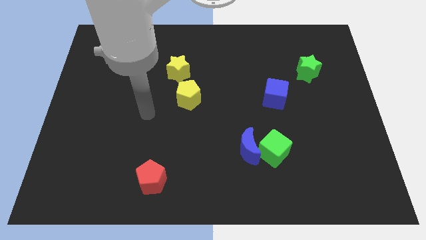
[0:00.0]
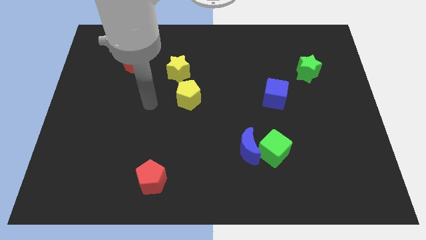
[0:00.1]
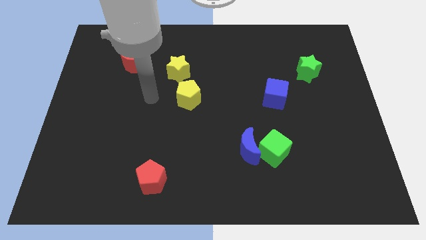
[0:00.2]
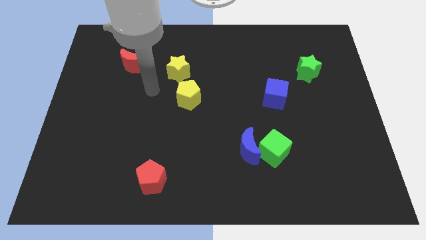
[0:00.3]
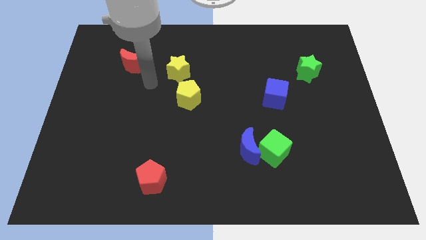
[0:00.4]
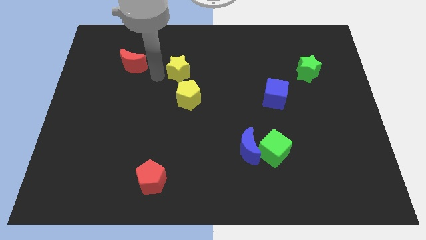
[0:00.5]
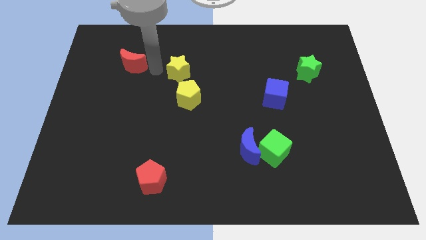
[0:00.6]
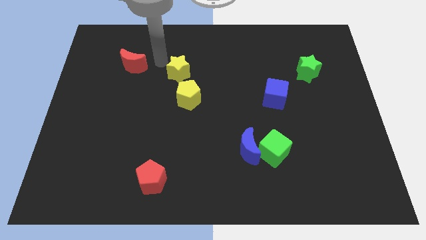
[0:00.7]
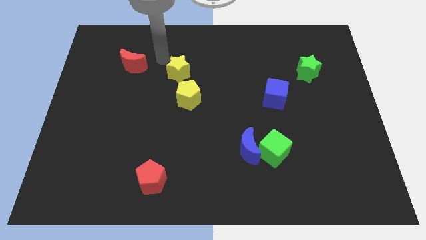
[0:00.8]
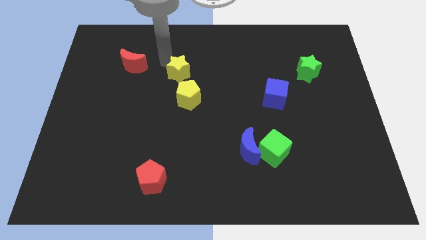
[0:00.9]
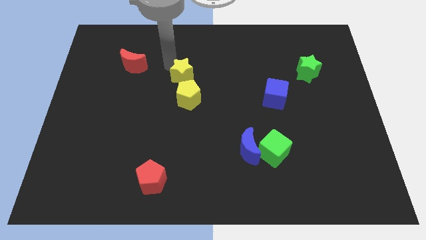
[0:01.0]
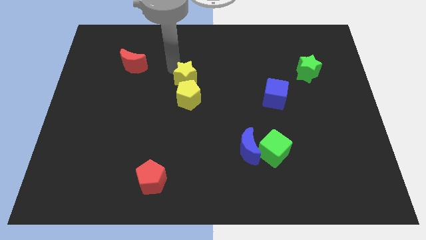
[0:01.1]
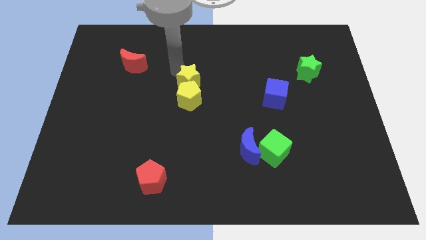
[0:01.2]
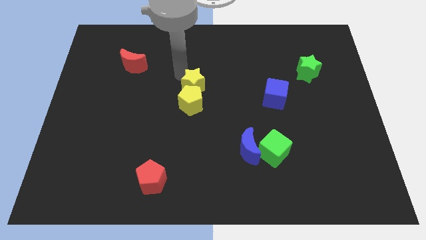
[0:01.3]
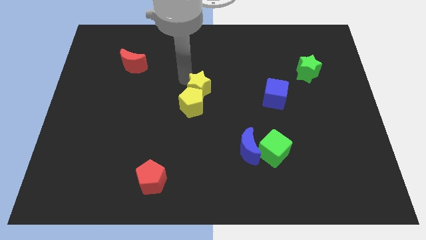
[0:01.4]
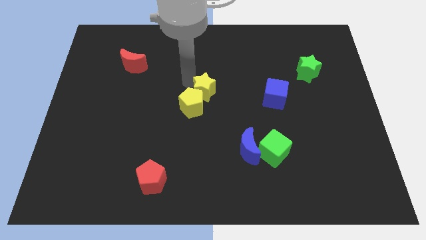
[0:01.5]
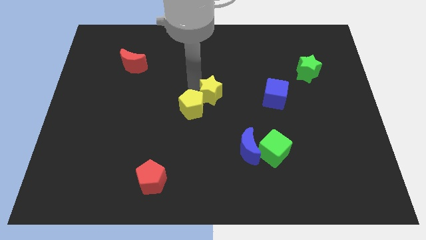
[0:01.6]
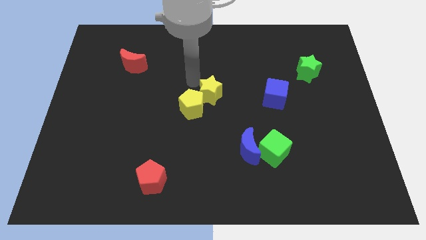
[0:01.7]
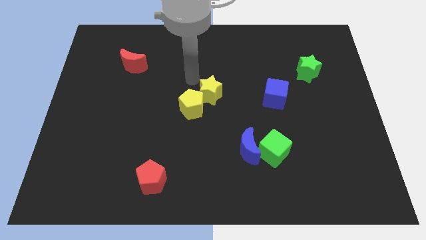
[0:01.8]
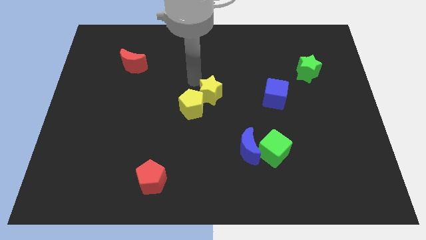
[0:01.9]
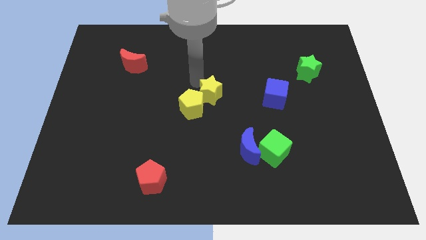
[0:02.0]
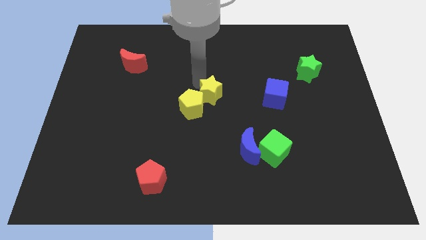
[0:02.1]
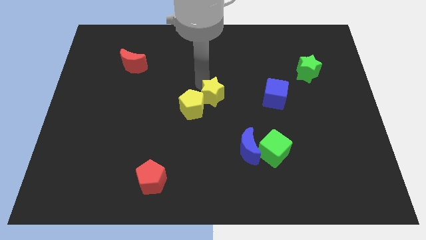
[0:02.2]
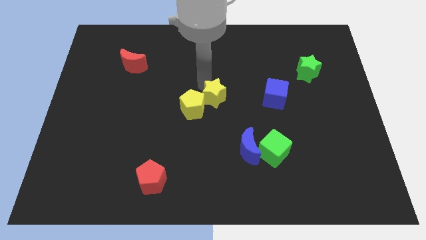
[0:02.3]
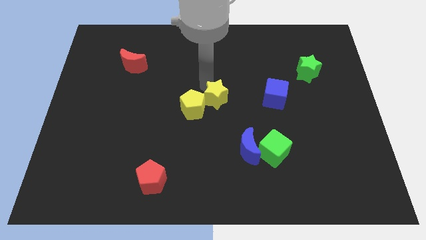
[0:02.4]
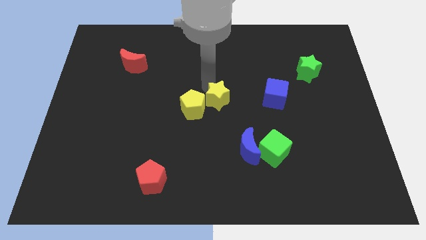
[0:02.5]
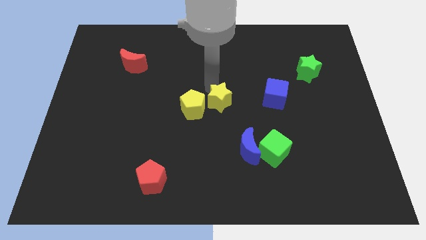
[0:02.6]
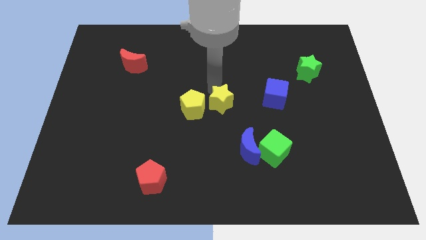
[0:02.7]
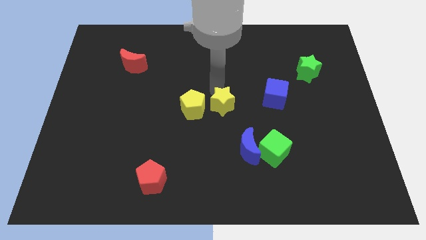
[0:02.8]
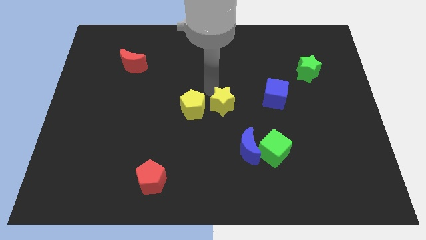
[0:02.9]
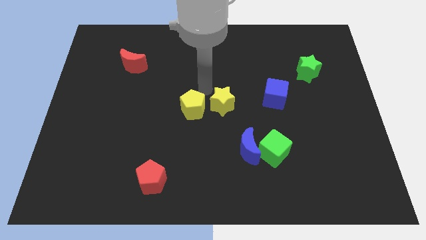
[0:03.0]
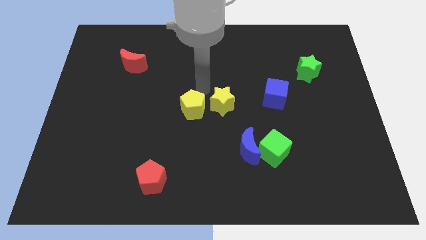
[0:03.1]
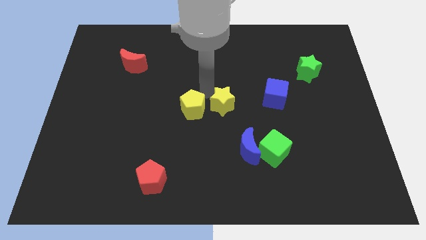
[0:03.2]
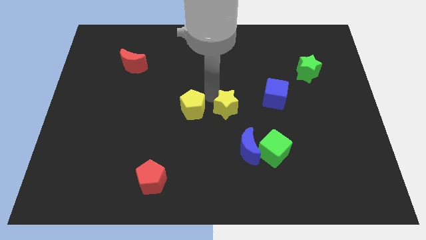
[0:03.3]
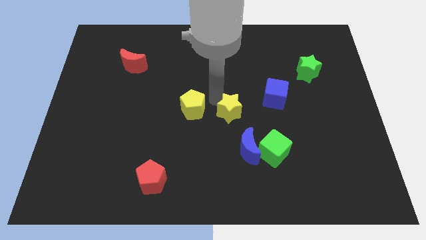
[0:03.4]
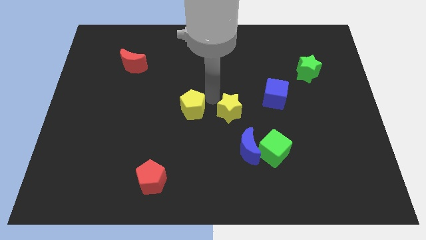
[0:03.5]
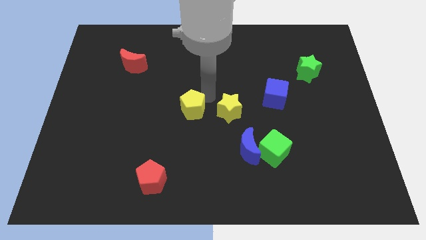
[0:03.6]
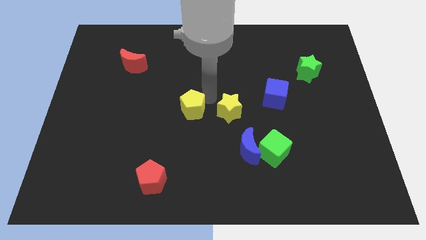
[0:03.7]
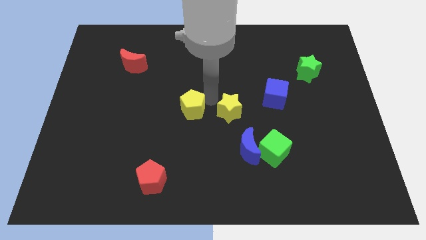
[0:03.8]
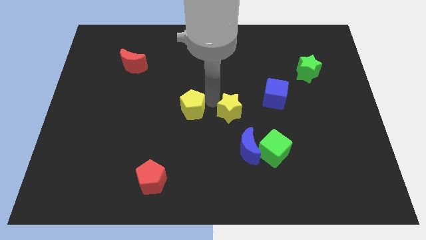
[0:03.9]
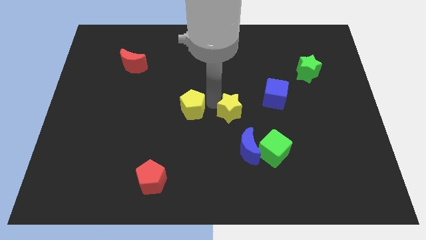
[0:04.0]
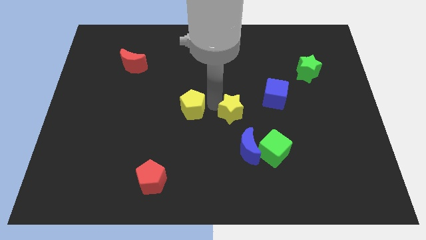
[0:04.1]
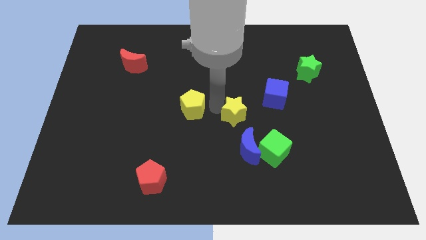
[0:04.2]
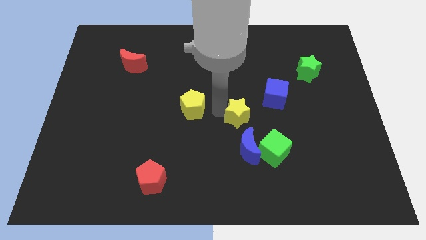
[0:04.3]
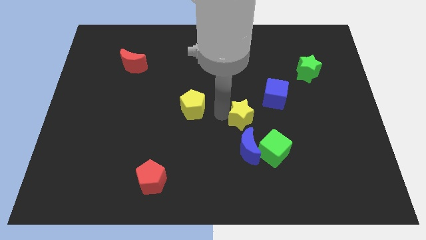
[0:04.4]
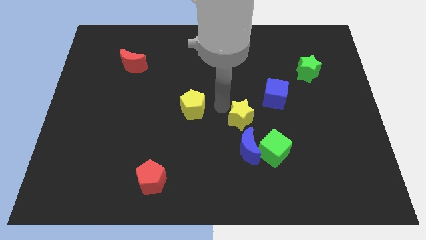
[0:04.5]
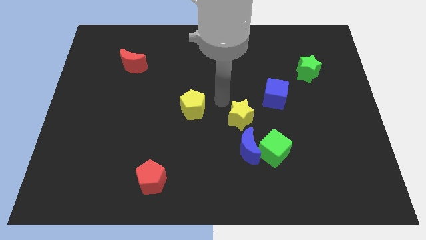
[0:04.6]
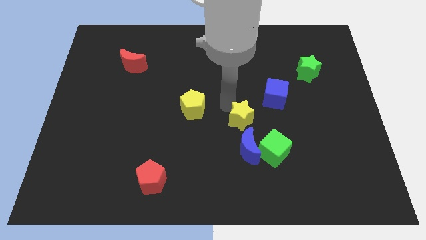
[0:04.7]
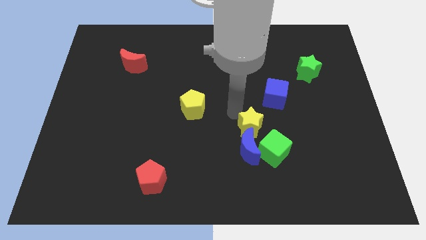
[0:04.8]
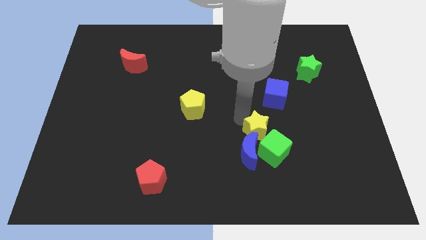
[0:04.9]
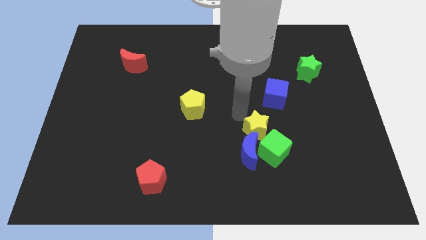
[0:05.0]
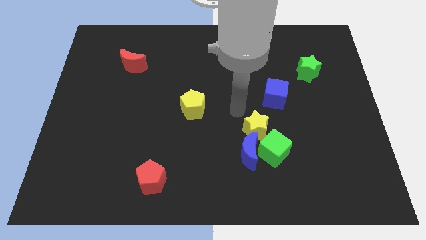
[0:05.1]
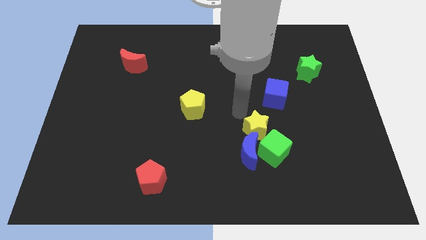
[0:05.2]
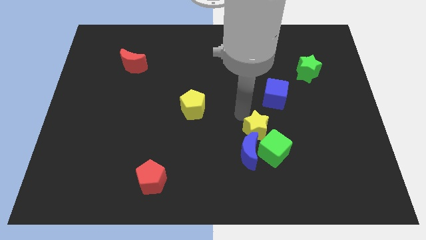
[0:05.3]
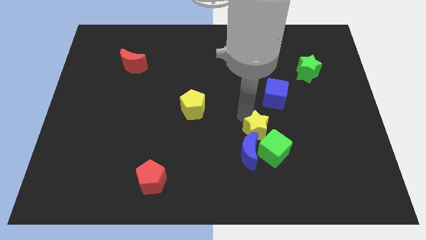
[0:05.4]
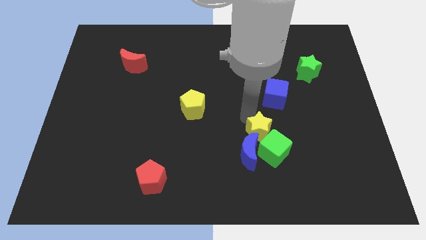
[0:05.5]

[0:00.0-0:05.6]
push the yellow star towards the green cube

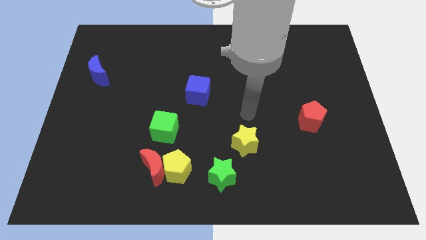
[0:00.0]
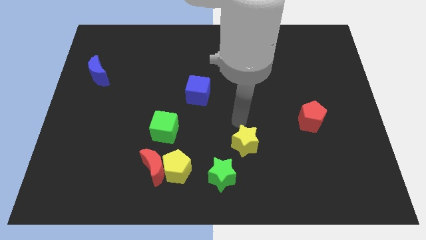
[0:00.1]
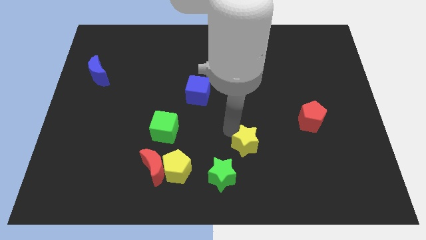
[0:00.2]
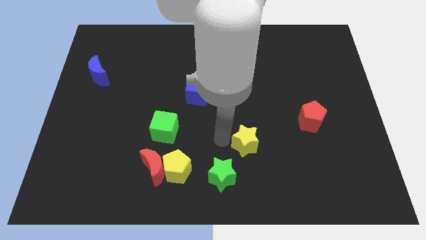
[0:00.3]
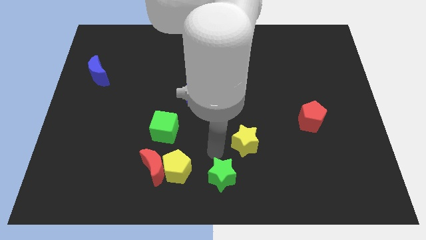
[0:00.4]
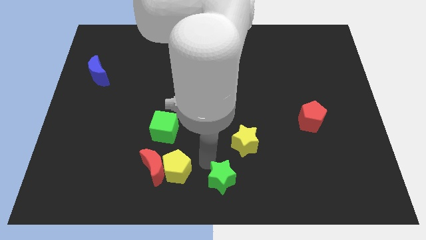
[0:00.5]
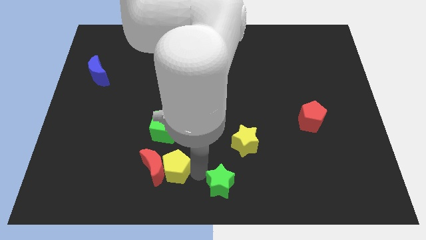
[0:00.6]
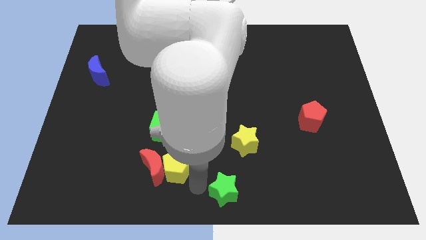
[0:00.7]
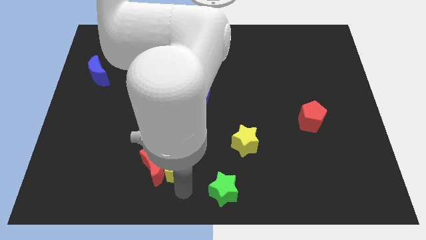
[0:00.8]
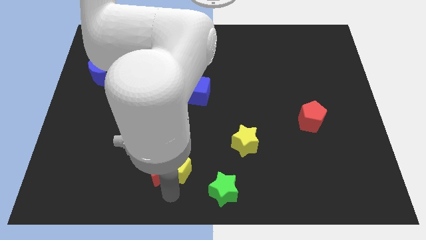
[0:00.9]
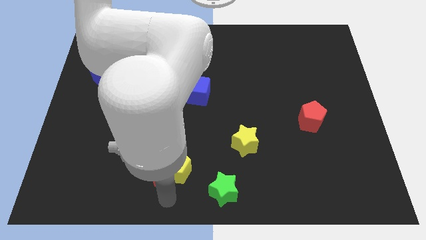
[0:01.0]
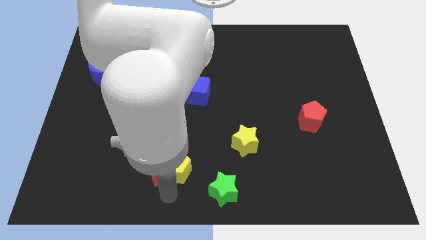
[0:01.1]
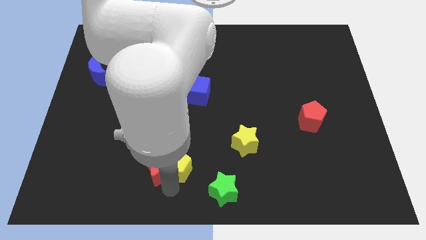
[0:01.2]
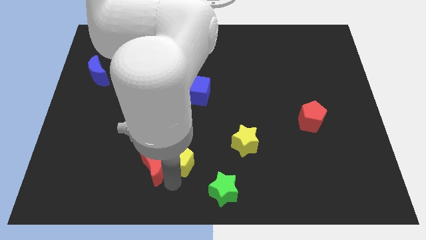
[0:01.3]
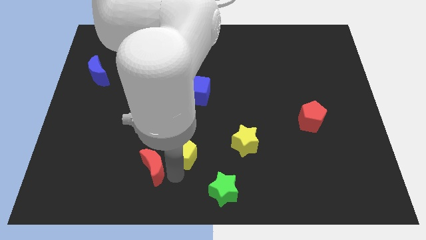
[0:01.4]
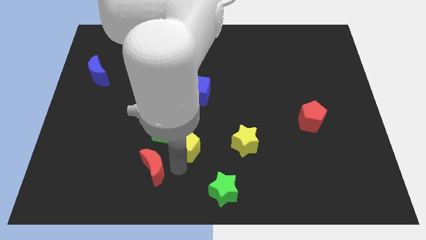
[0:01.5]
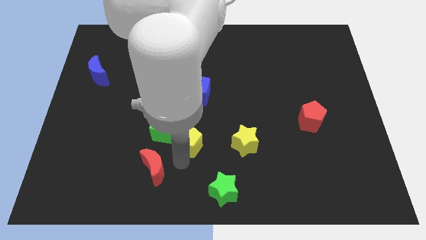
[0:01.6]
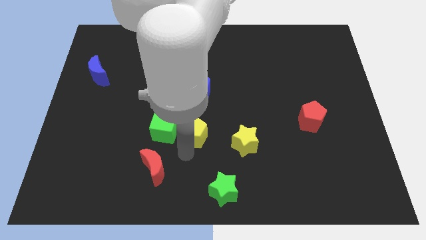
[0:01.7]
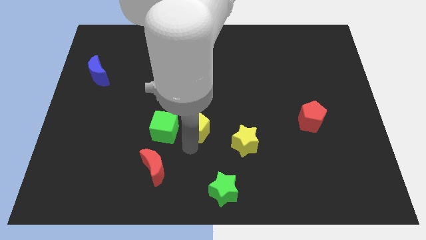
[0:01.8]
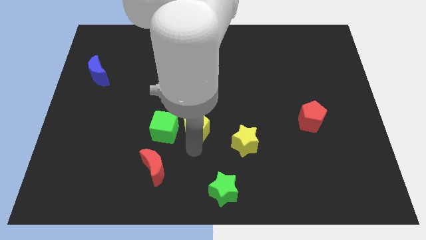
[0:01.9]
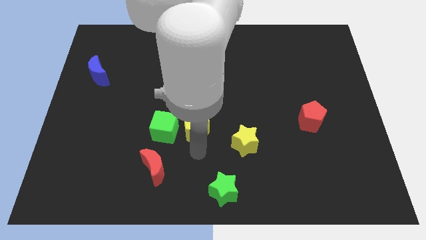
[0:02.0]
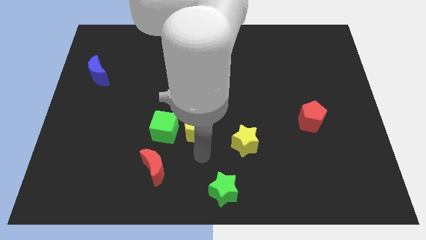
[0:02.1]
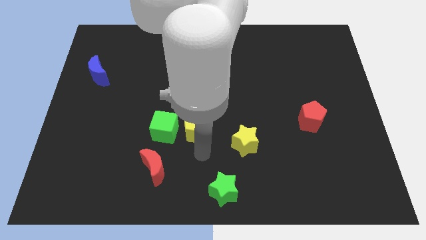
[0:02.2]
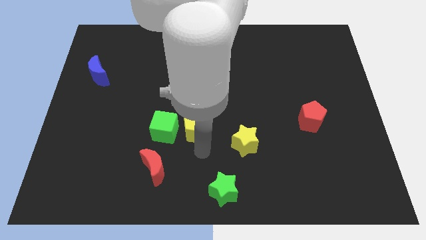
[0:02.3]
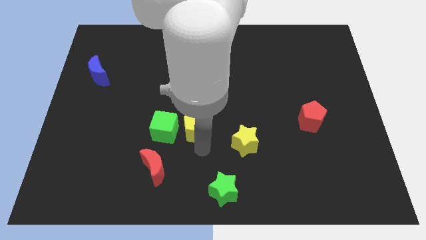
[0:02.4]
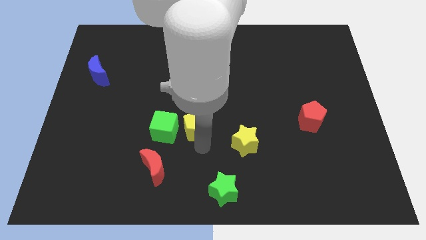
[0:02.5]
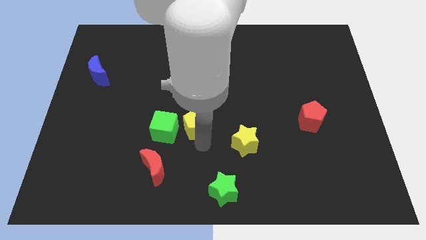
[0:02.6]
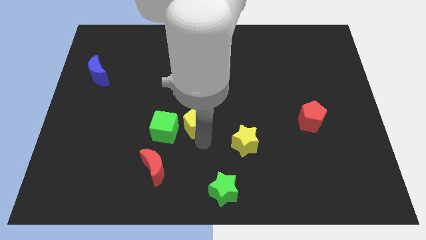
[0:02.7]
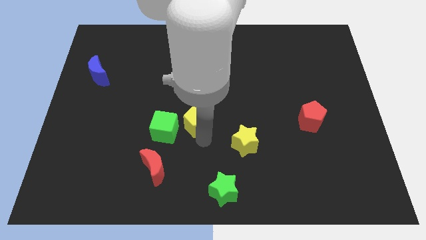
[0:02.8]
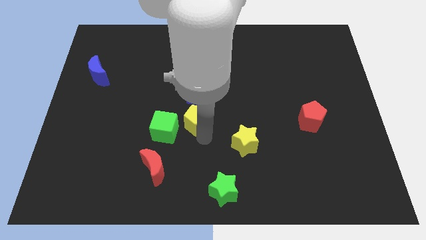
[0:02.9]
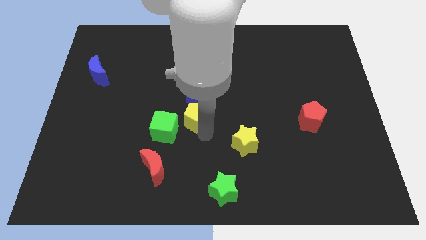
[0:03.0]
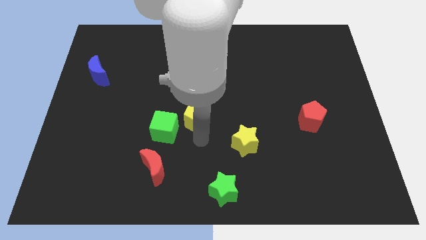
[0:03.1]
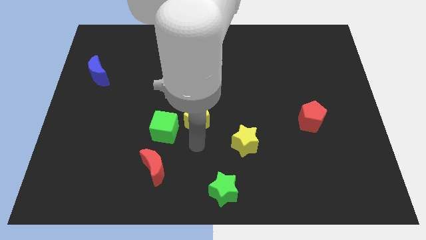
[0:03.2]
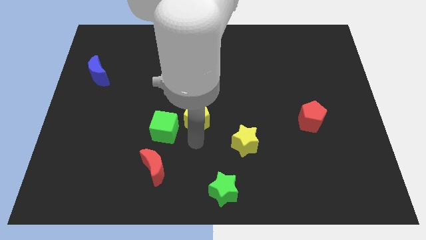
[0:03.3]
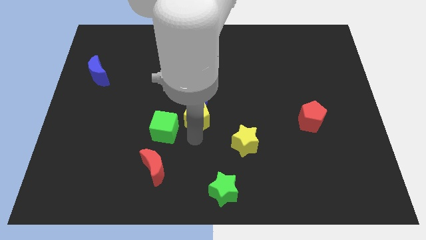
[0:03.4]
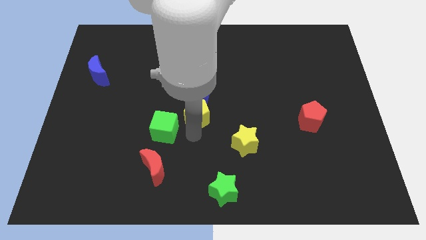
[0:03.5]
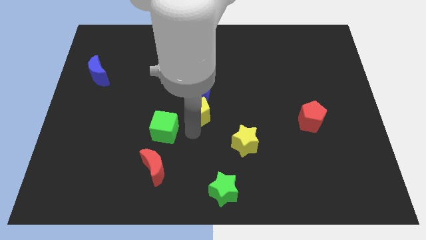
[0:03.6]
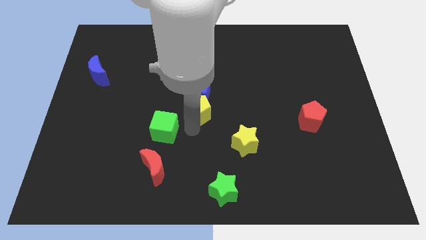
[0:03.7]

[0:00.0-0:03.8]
slide the yellow pentagon towards the blue cube
